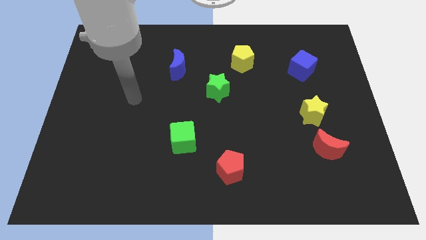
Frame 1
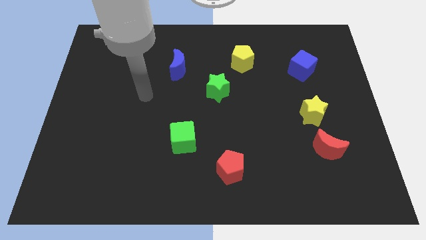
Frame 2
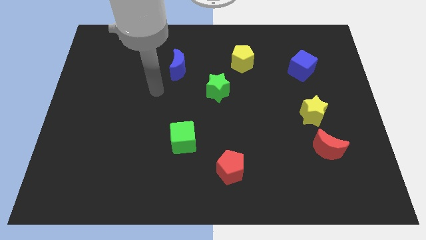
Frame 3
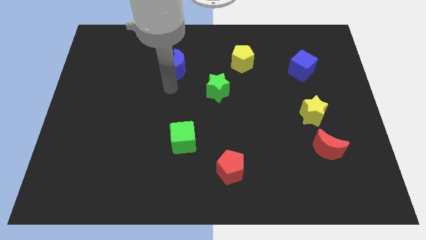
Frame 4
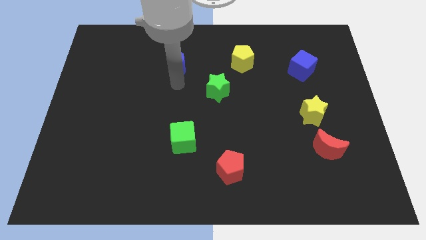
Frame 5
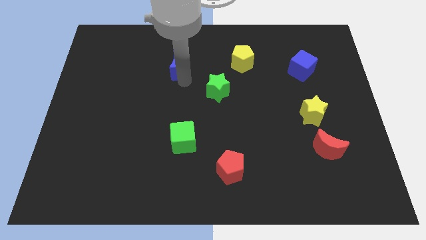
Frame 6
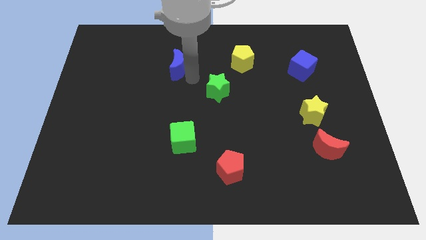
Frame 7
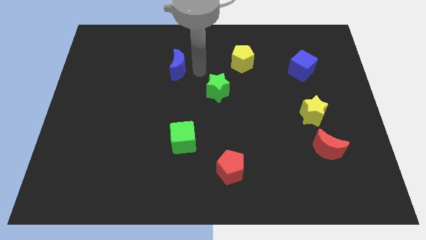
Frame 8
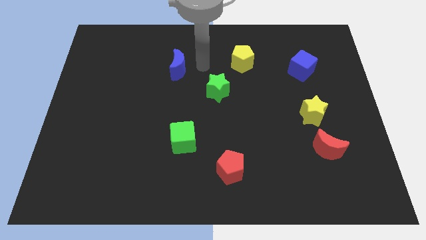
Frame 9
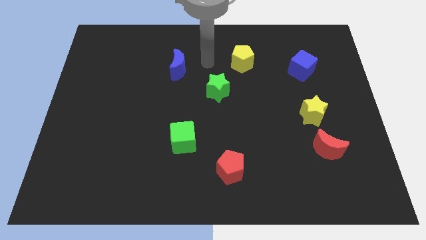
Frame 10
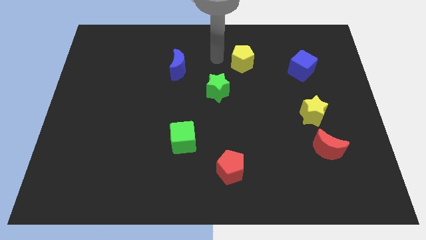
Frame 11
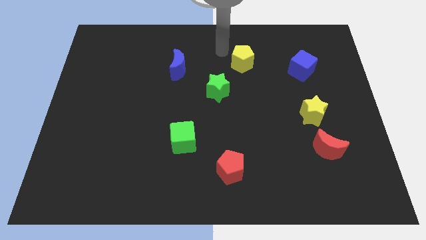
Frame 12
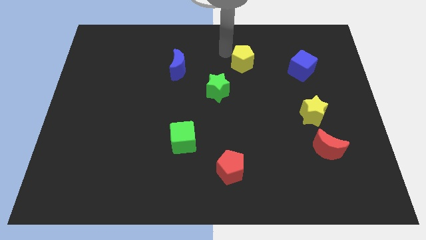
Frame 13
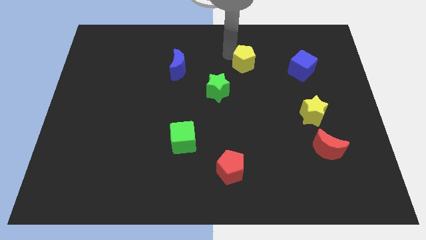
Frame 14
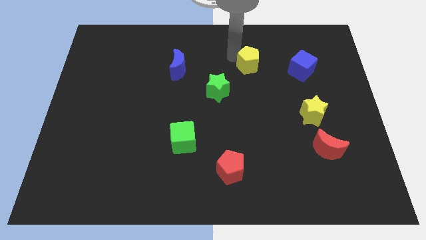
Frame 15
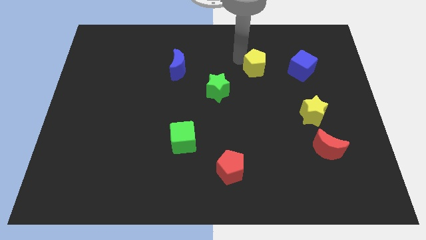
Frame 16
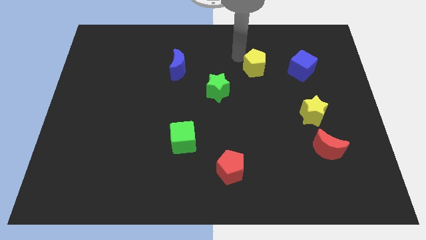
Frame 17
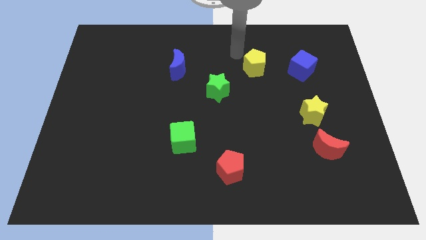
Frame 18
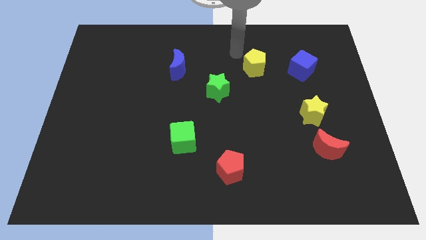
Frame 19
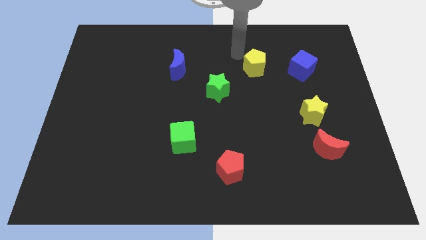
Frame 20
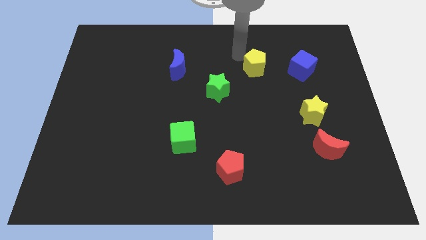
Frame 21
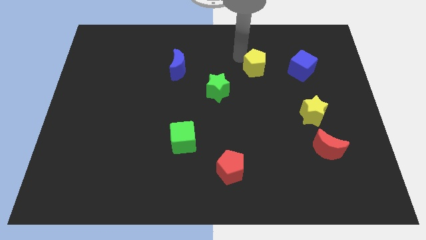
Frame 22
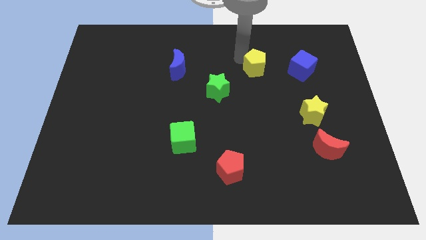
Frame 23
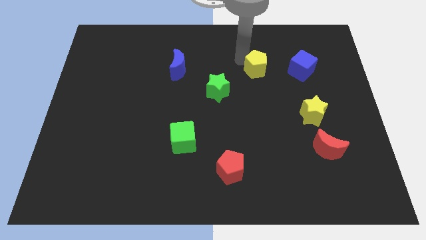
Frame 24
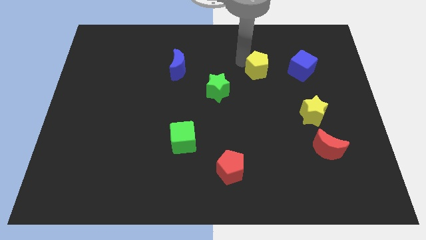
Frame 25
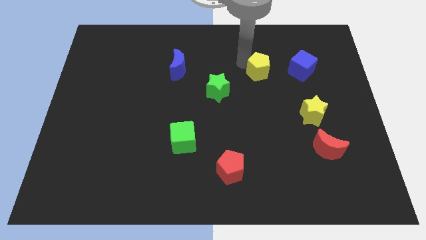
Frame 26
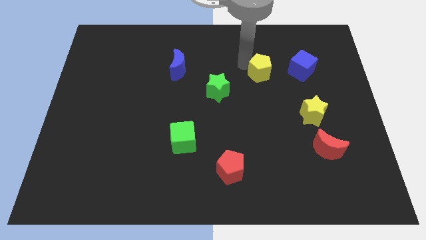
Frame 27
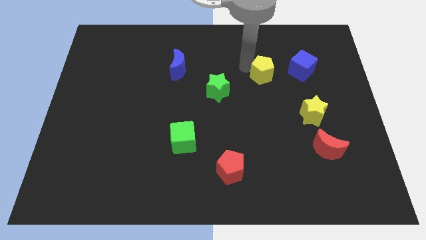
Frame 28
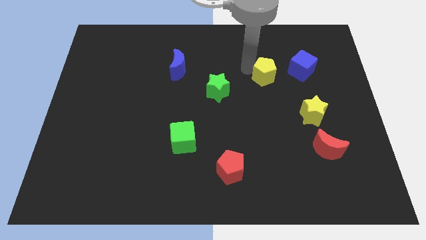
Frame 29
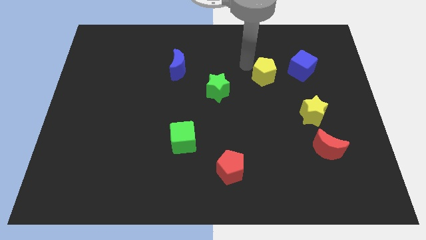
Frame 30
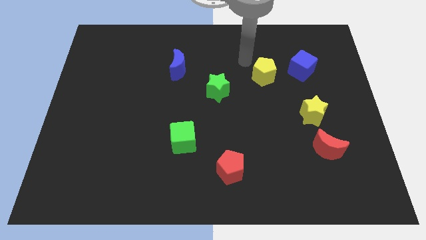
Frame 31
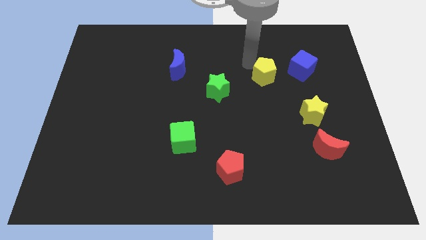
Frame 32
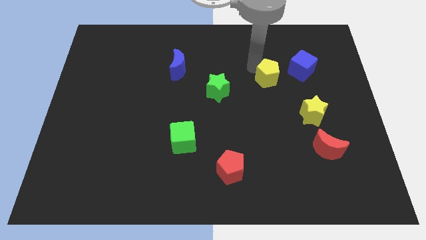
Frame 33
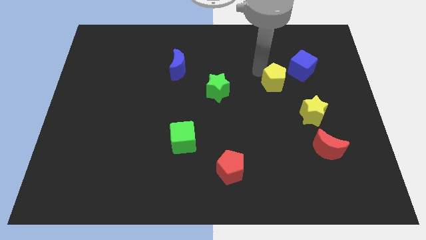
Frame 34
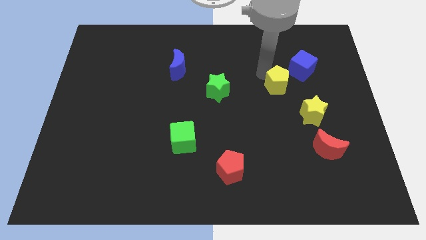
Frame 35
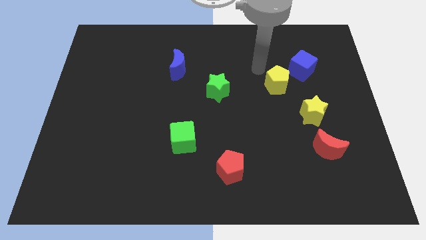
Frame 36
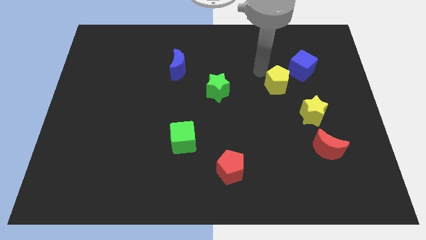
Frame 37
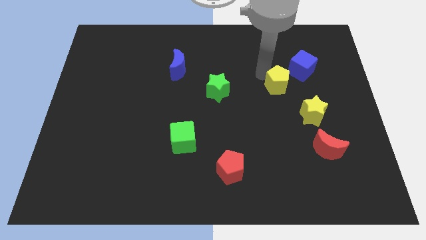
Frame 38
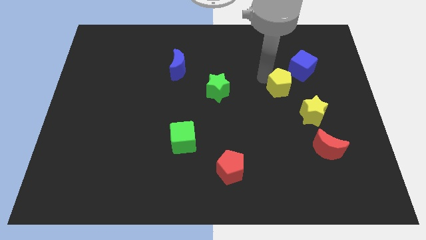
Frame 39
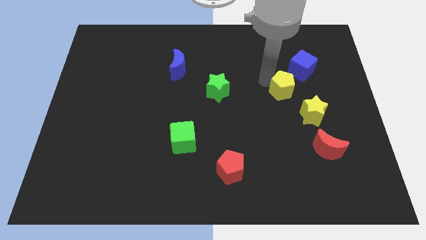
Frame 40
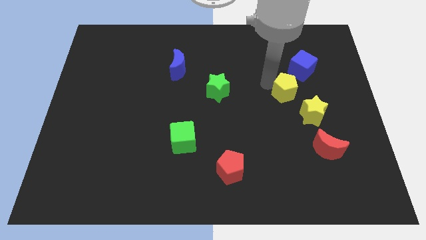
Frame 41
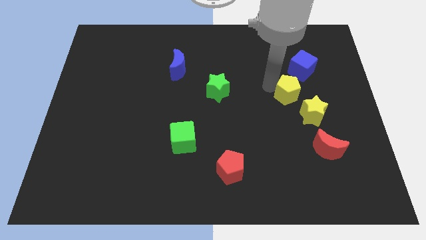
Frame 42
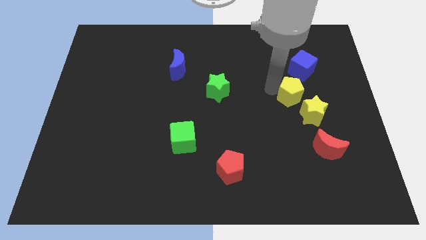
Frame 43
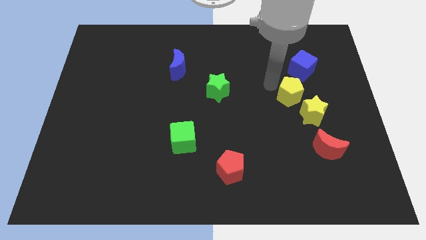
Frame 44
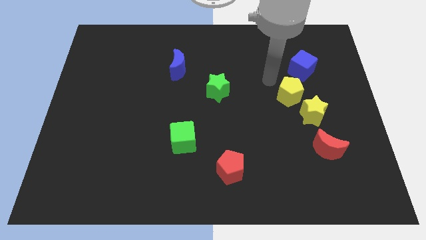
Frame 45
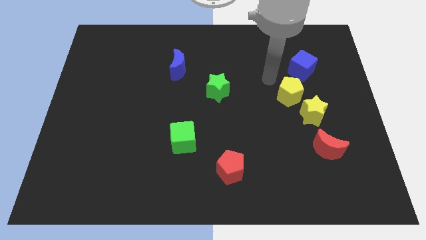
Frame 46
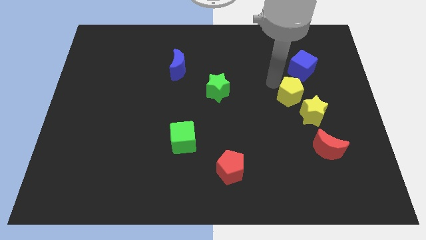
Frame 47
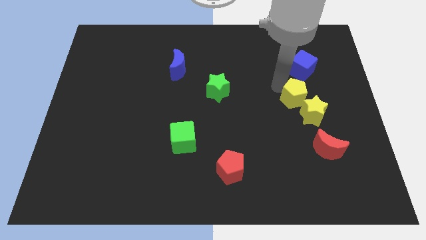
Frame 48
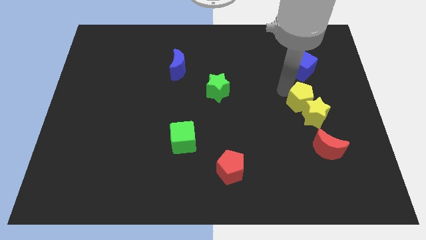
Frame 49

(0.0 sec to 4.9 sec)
push the yellow pentagon close to the yellow star

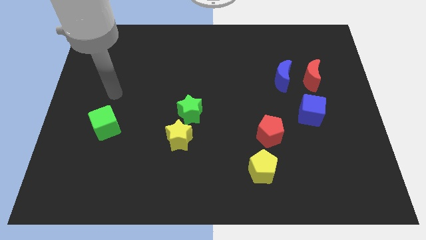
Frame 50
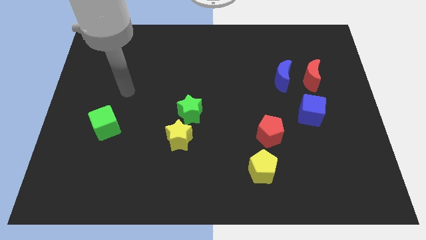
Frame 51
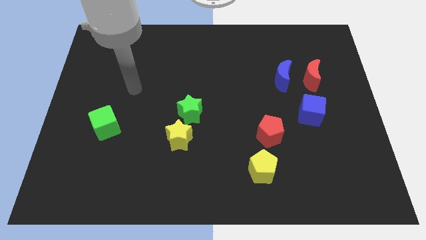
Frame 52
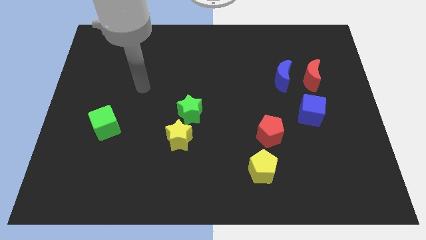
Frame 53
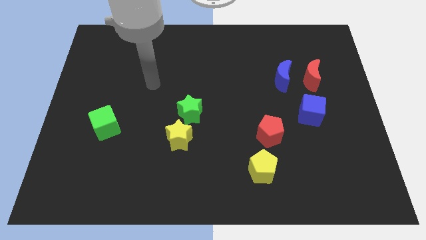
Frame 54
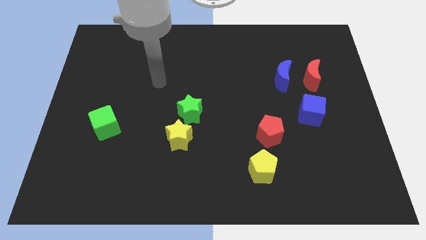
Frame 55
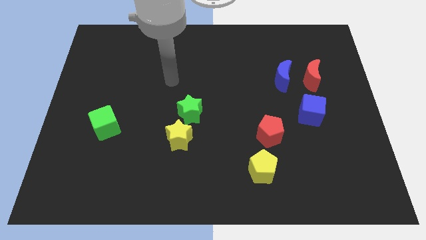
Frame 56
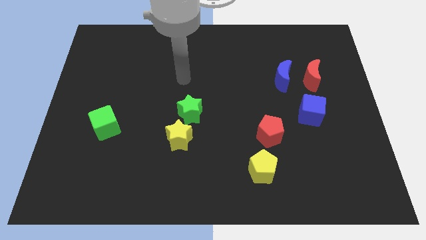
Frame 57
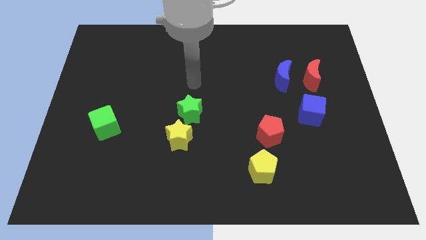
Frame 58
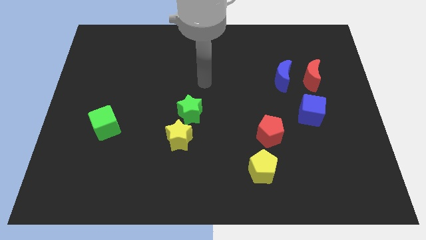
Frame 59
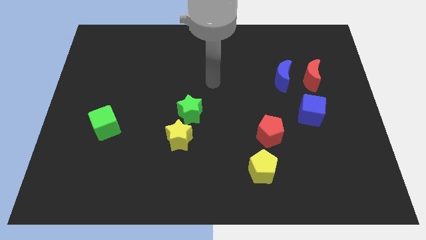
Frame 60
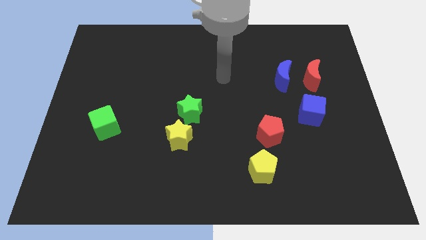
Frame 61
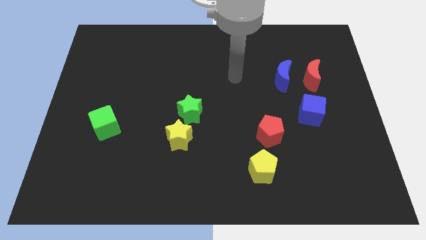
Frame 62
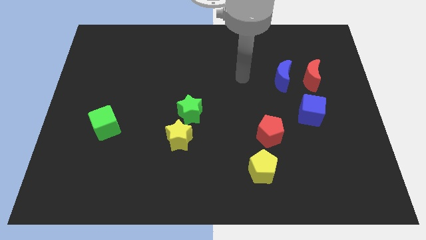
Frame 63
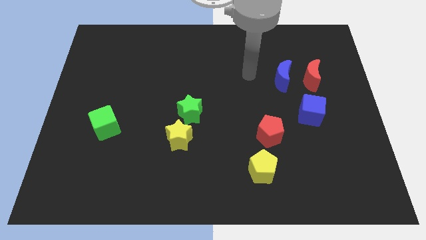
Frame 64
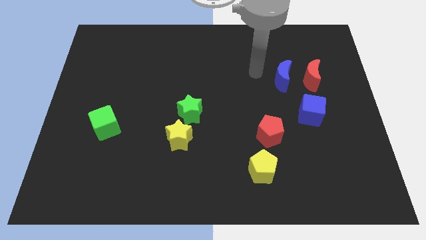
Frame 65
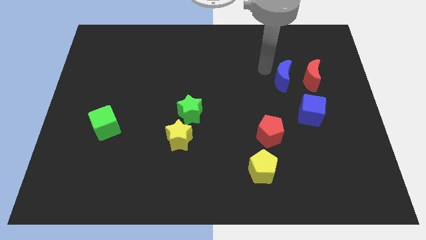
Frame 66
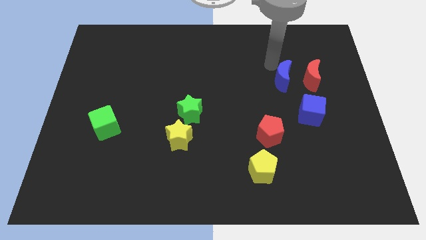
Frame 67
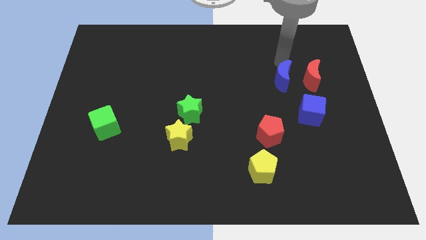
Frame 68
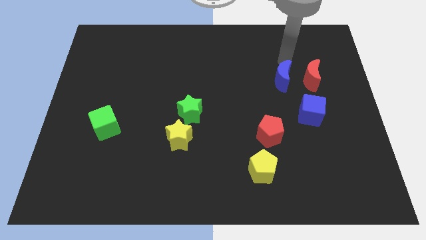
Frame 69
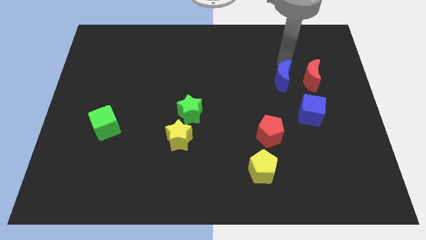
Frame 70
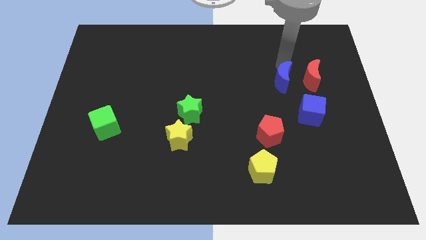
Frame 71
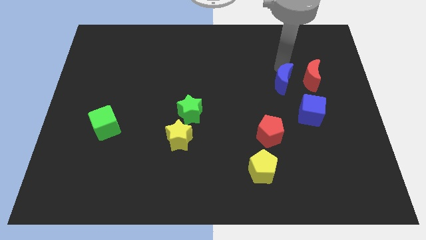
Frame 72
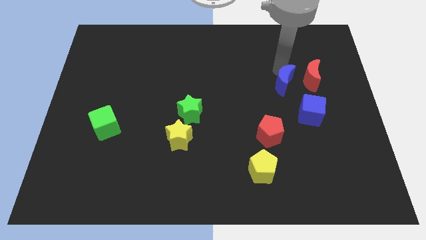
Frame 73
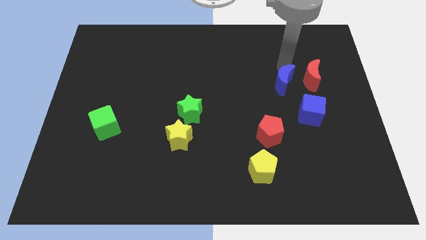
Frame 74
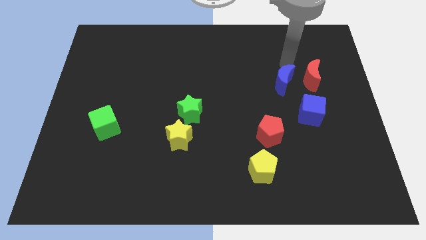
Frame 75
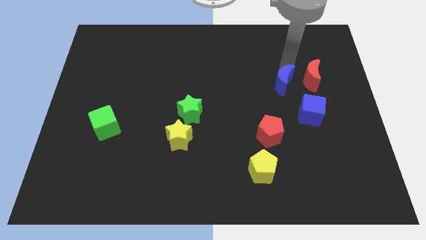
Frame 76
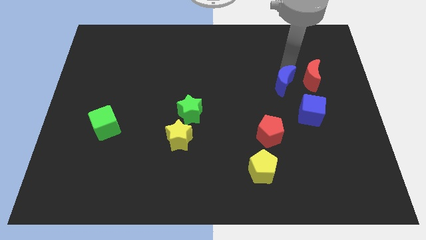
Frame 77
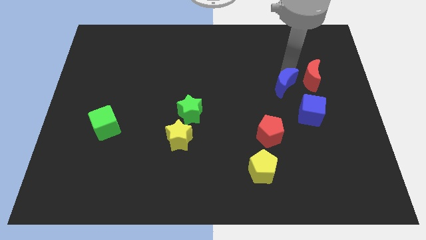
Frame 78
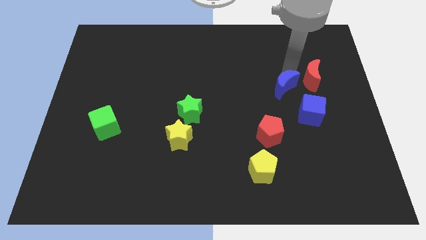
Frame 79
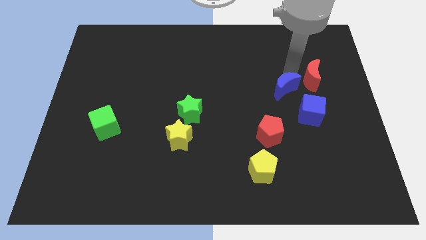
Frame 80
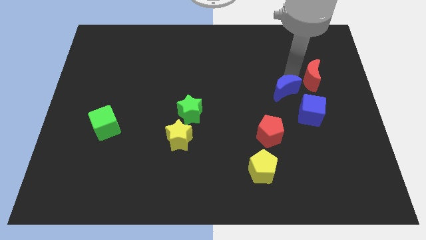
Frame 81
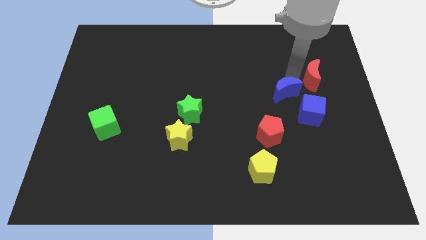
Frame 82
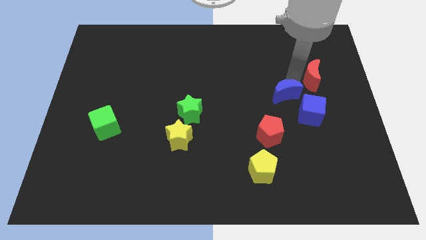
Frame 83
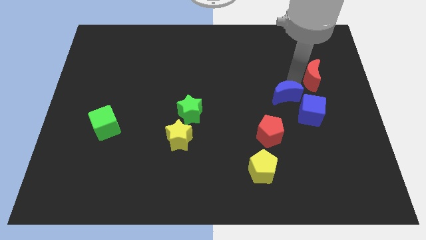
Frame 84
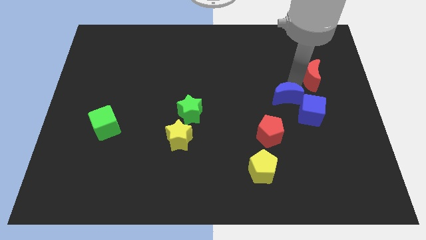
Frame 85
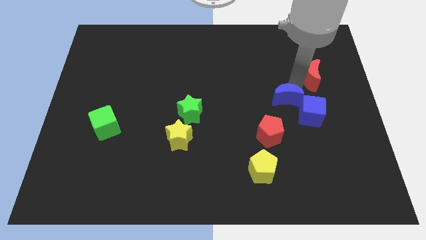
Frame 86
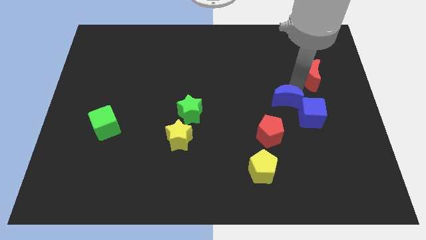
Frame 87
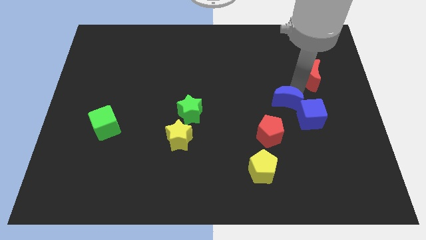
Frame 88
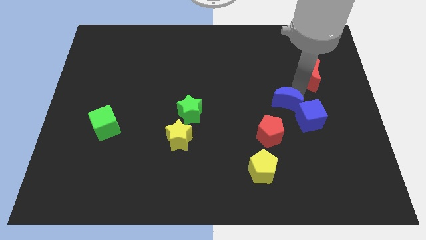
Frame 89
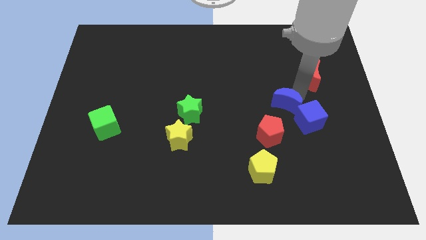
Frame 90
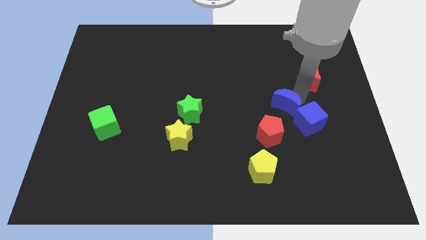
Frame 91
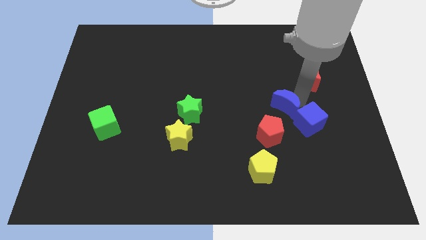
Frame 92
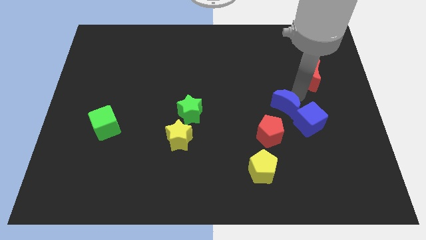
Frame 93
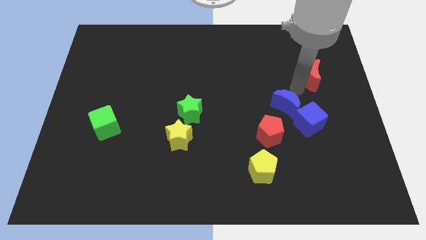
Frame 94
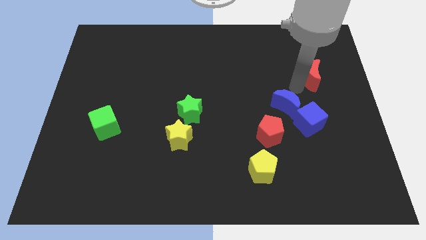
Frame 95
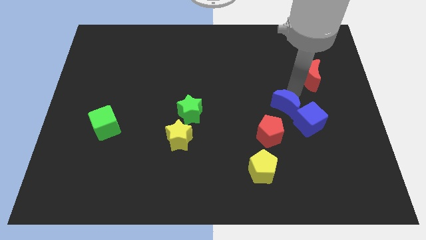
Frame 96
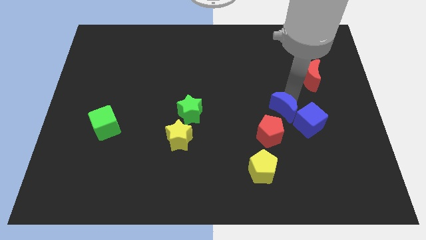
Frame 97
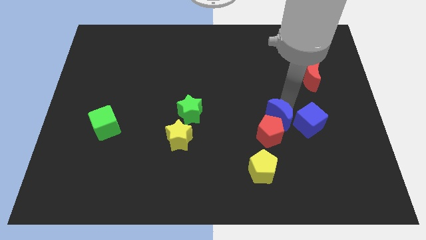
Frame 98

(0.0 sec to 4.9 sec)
push the blue moon to the red pentagon
